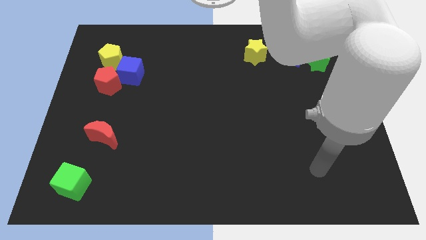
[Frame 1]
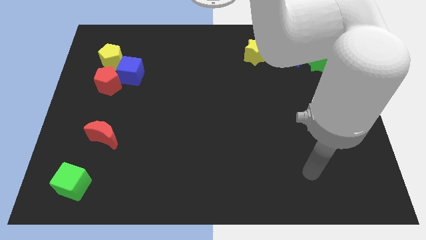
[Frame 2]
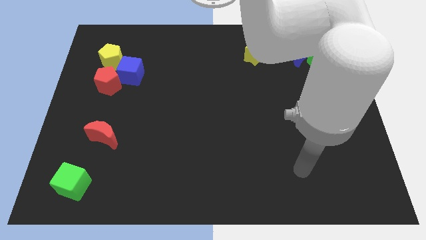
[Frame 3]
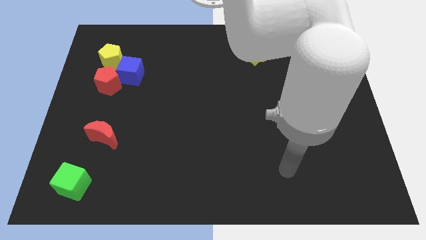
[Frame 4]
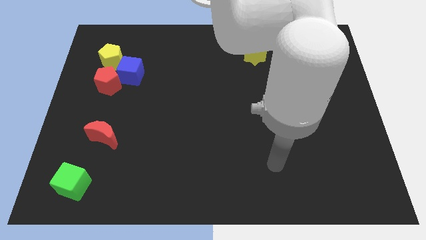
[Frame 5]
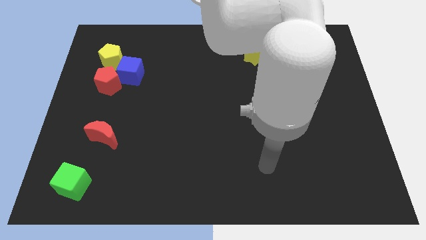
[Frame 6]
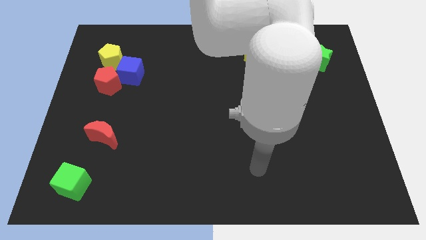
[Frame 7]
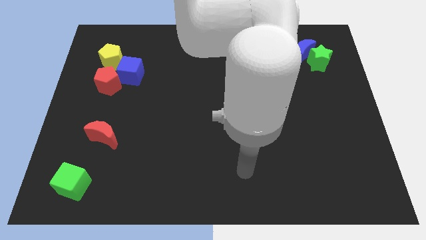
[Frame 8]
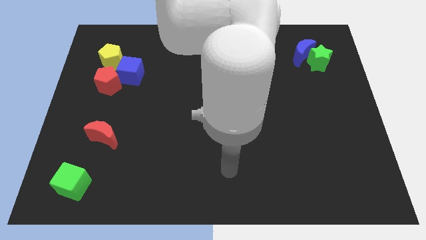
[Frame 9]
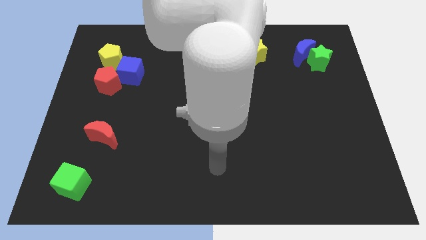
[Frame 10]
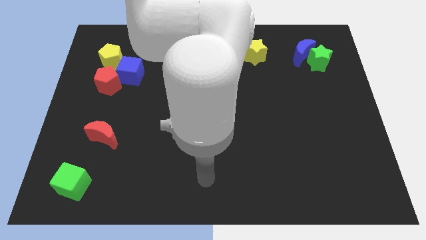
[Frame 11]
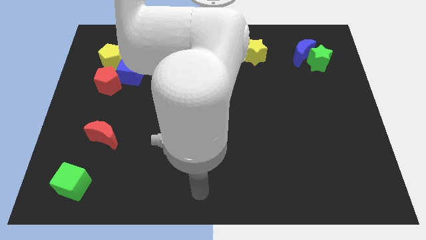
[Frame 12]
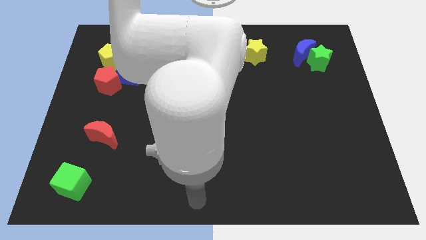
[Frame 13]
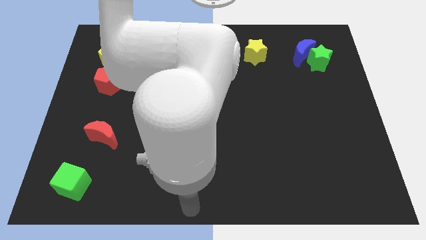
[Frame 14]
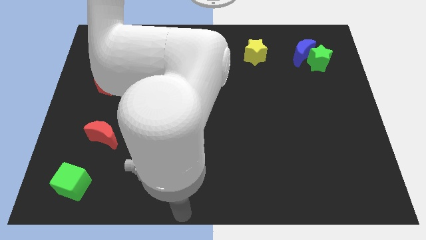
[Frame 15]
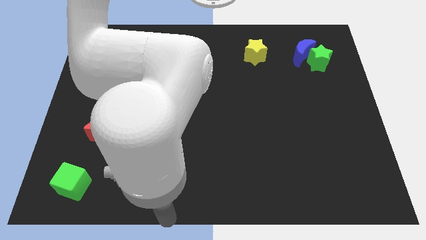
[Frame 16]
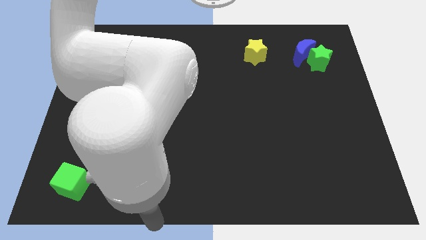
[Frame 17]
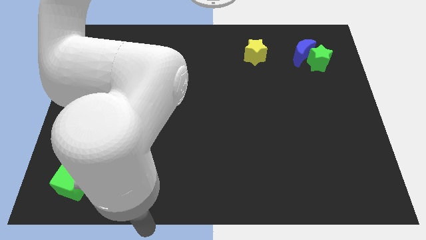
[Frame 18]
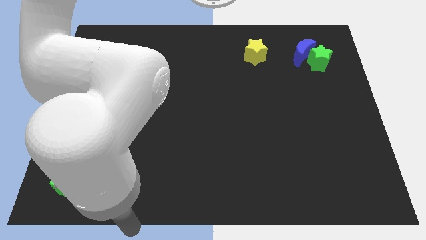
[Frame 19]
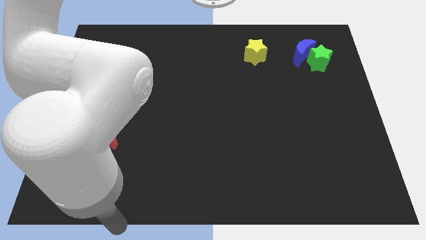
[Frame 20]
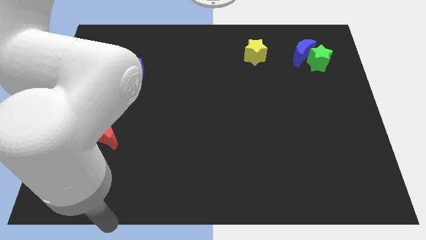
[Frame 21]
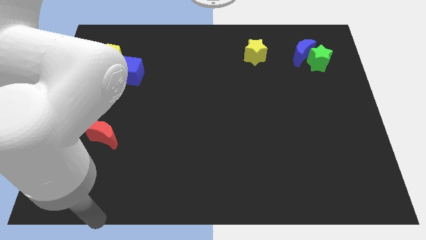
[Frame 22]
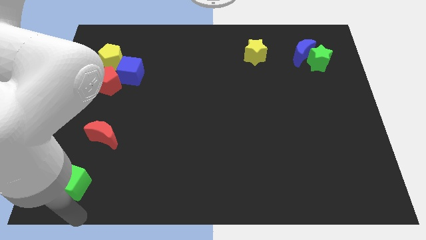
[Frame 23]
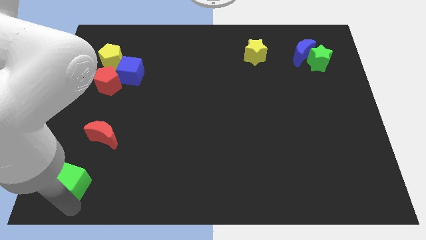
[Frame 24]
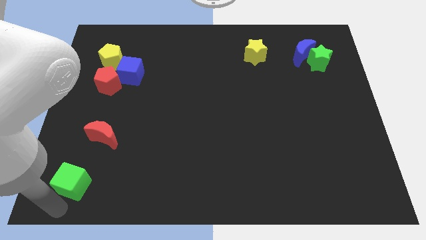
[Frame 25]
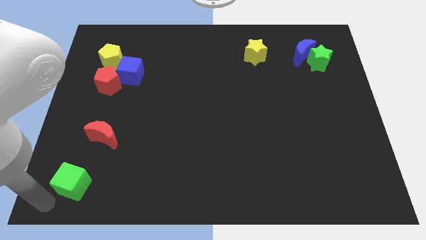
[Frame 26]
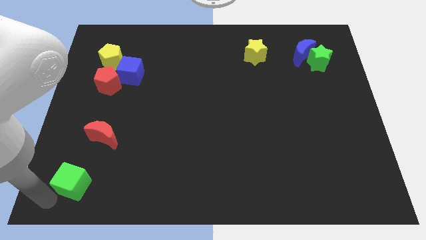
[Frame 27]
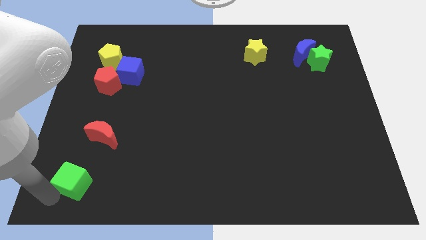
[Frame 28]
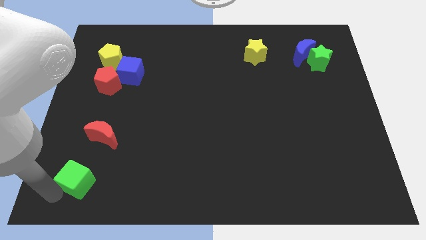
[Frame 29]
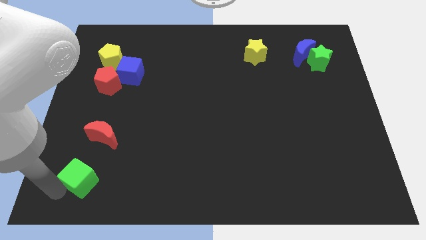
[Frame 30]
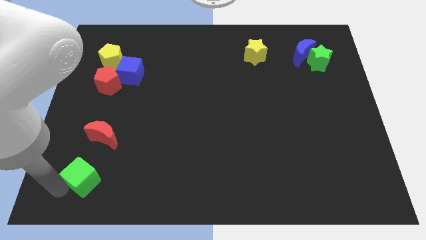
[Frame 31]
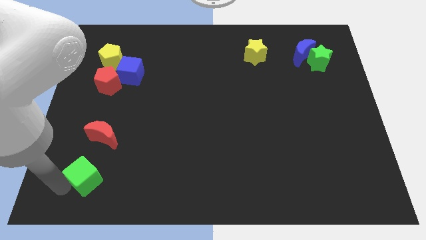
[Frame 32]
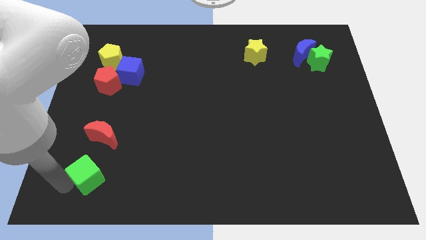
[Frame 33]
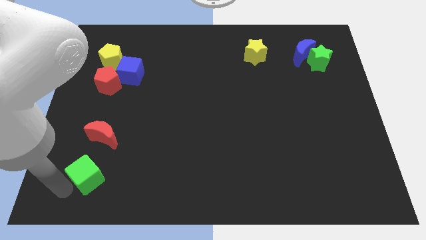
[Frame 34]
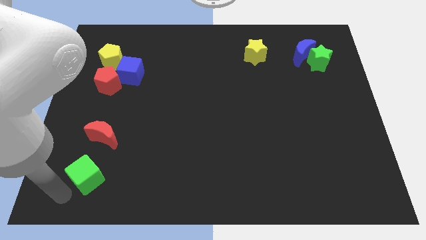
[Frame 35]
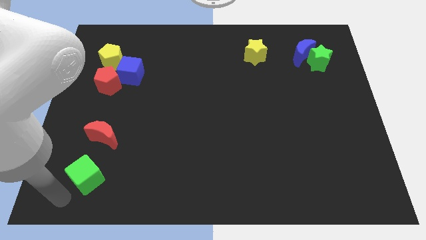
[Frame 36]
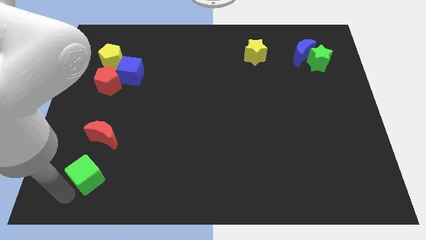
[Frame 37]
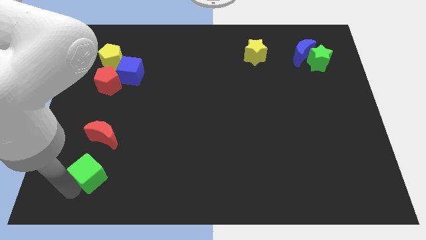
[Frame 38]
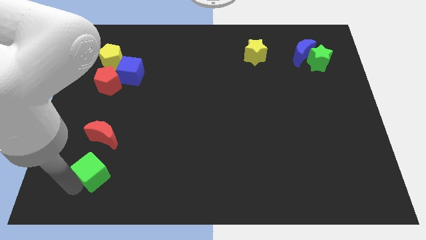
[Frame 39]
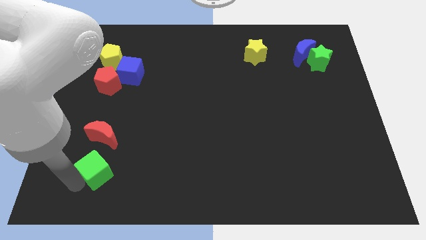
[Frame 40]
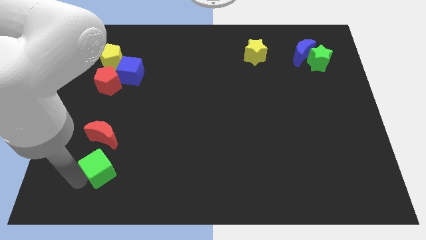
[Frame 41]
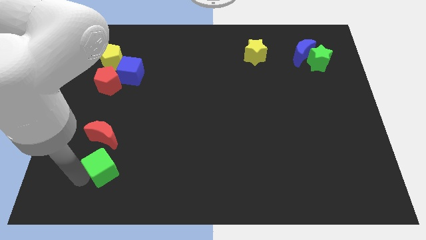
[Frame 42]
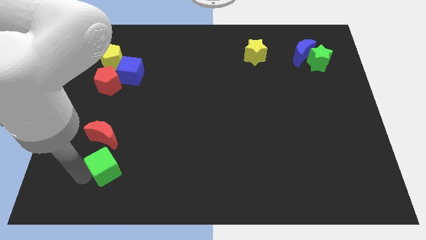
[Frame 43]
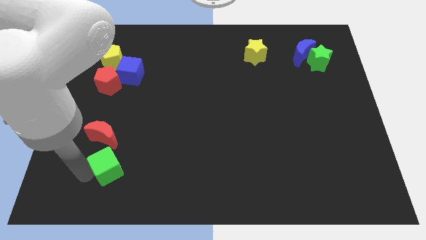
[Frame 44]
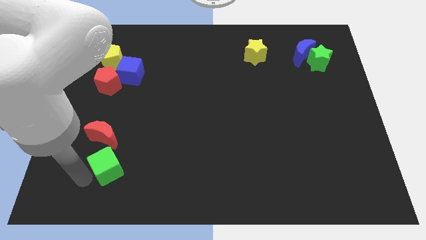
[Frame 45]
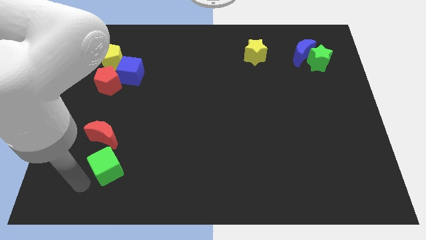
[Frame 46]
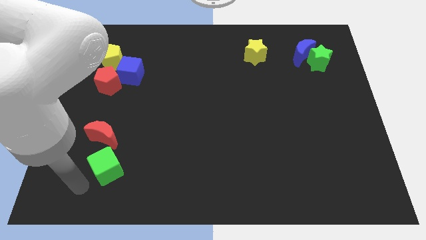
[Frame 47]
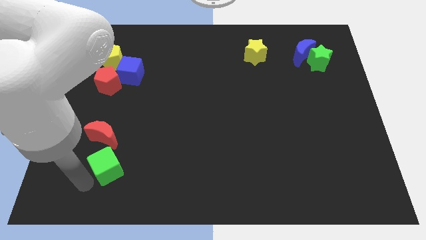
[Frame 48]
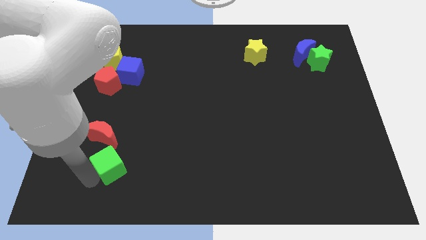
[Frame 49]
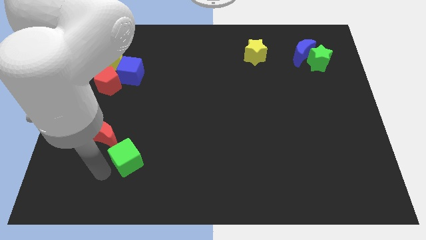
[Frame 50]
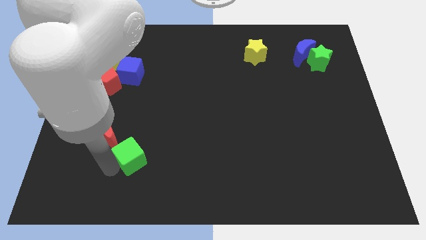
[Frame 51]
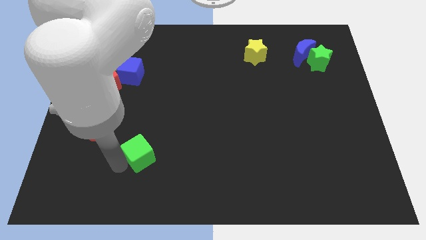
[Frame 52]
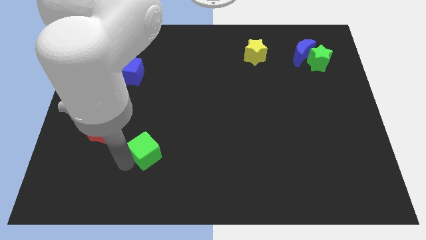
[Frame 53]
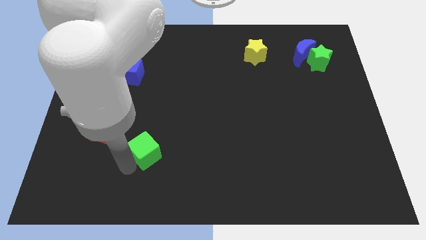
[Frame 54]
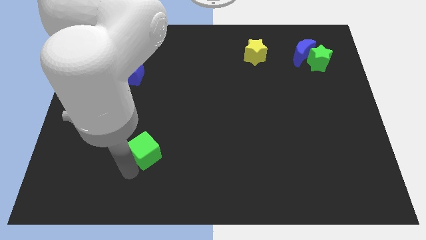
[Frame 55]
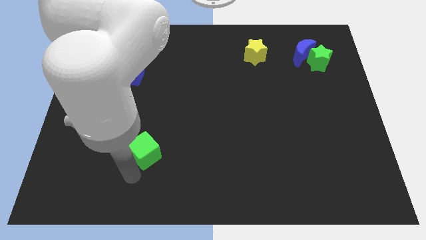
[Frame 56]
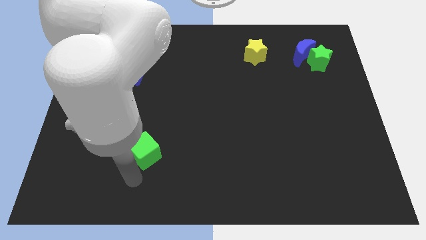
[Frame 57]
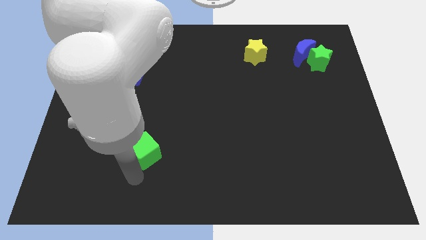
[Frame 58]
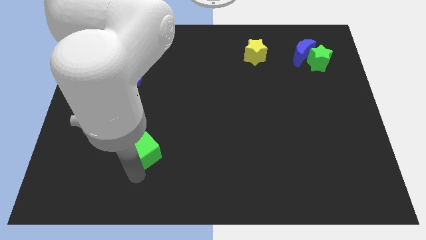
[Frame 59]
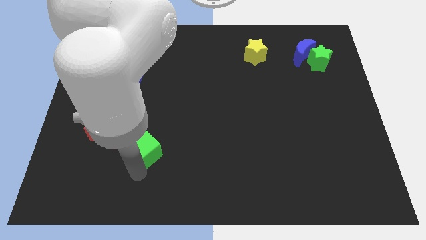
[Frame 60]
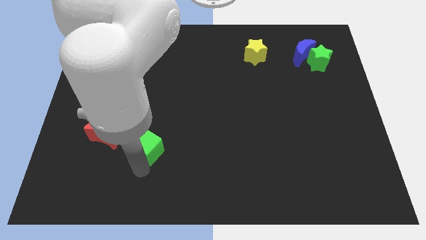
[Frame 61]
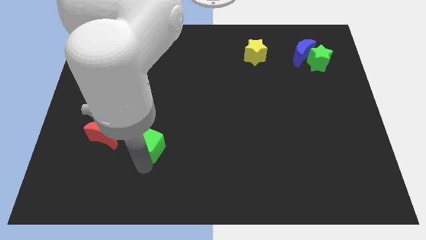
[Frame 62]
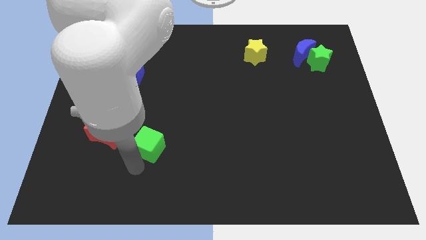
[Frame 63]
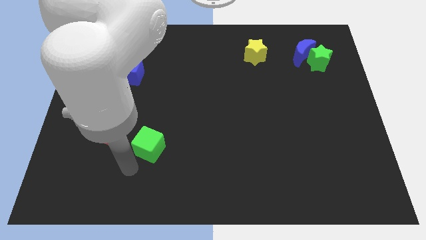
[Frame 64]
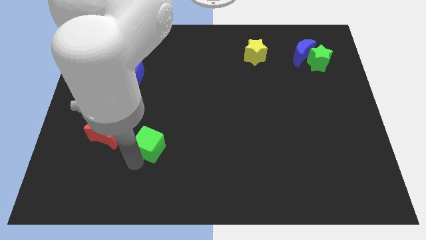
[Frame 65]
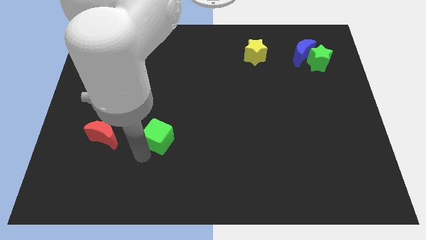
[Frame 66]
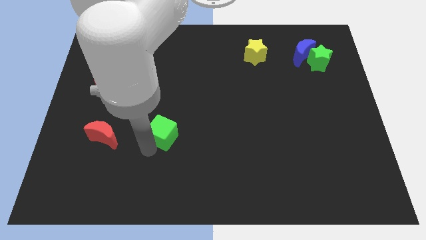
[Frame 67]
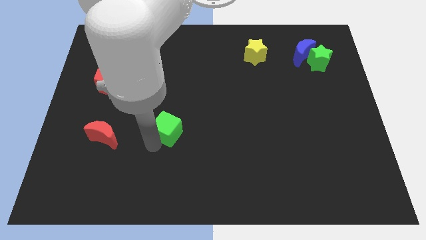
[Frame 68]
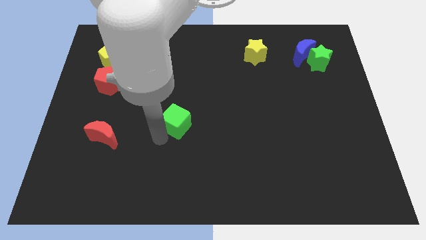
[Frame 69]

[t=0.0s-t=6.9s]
slide the green cube to the center
